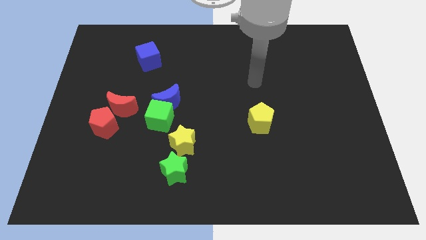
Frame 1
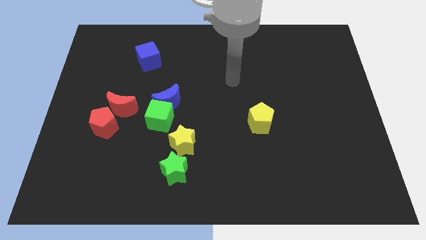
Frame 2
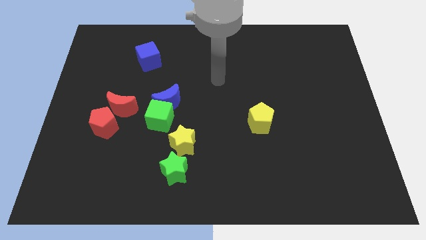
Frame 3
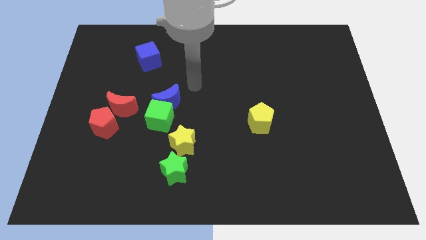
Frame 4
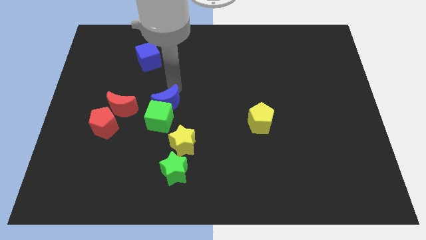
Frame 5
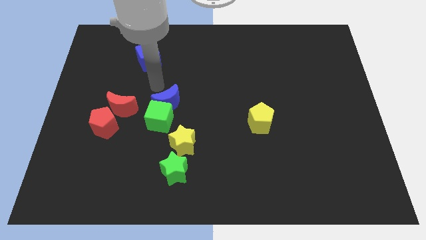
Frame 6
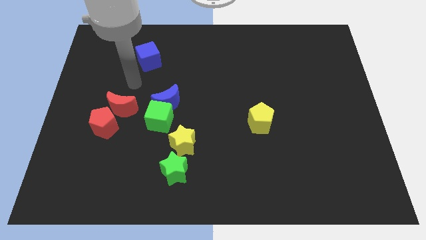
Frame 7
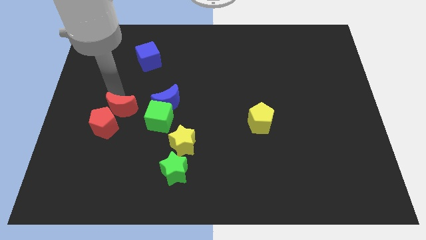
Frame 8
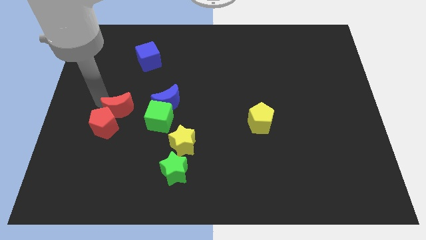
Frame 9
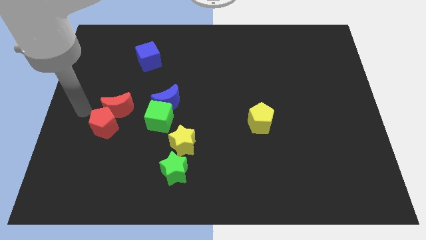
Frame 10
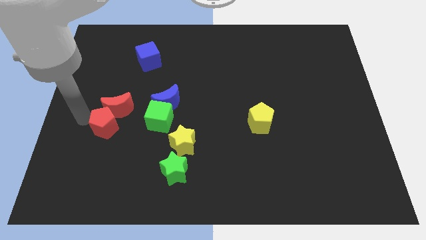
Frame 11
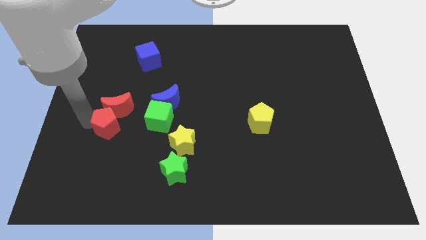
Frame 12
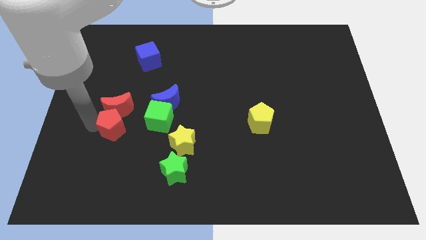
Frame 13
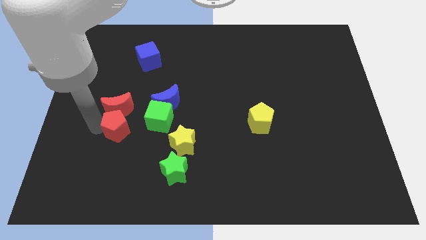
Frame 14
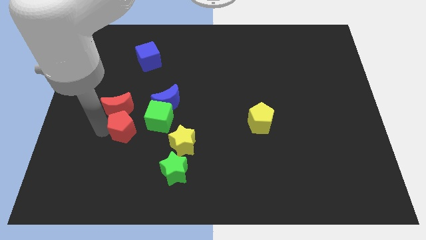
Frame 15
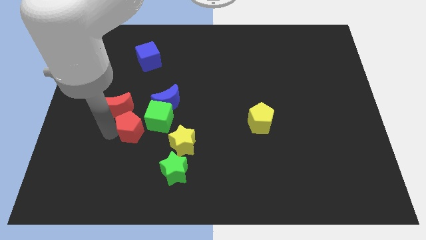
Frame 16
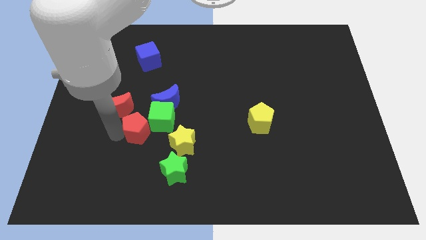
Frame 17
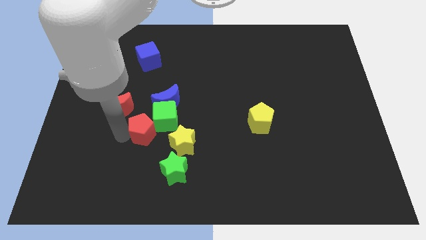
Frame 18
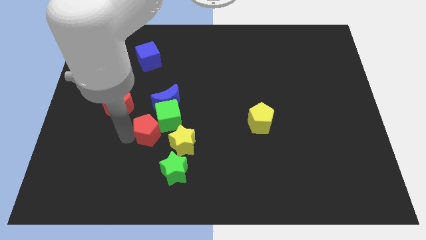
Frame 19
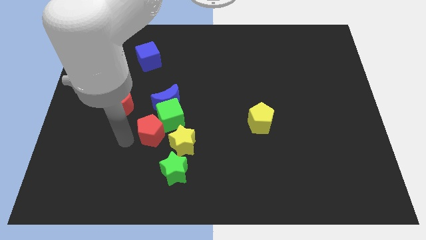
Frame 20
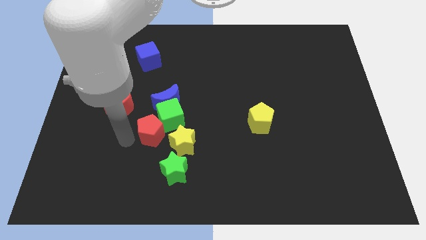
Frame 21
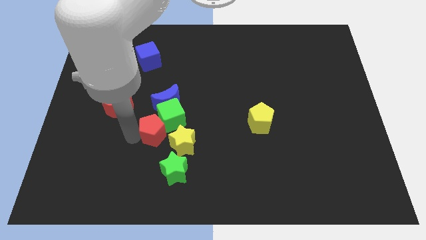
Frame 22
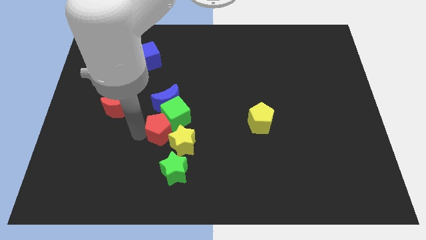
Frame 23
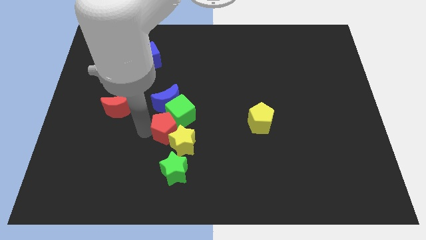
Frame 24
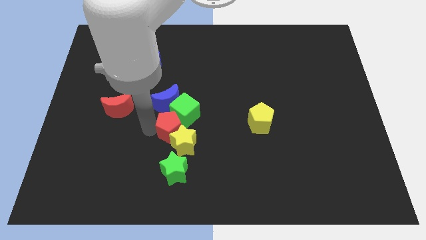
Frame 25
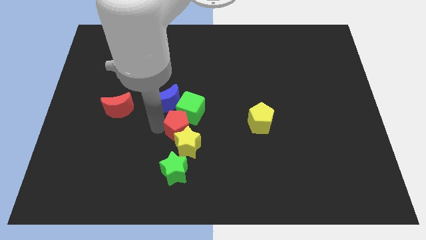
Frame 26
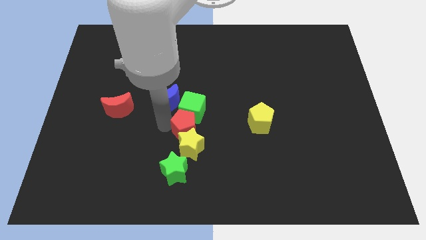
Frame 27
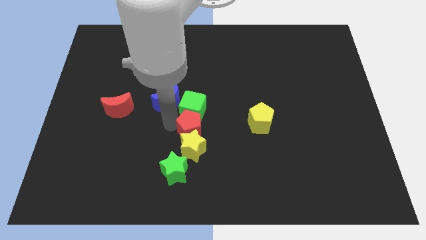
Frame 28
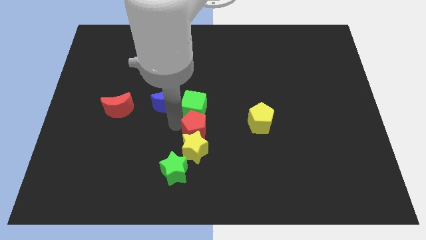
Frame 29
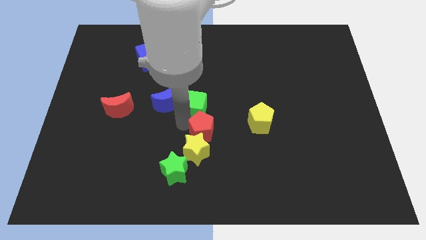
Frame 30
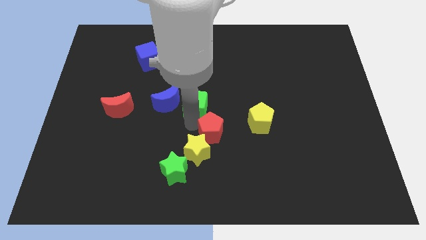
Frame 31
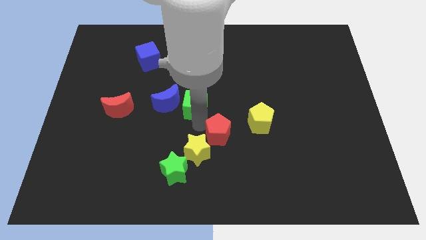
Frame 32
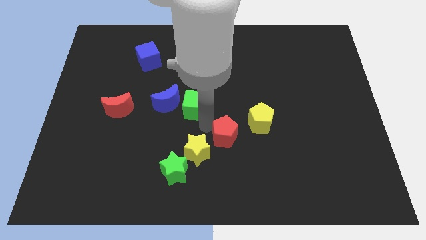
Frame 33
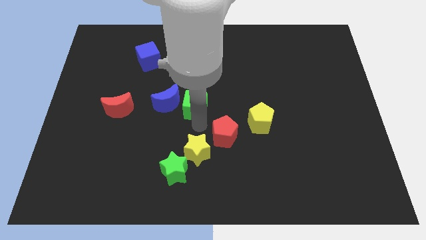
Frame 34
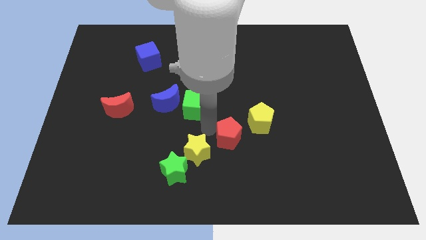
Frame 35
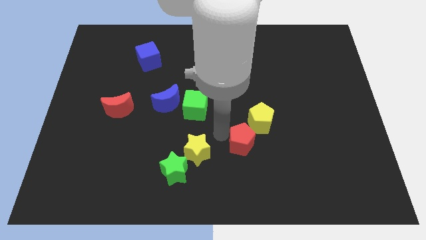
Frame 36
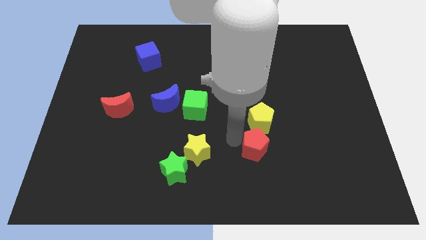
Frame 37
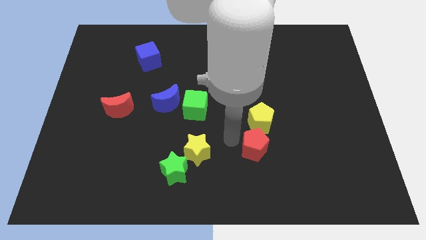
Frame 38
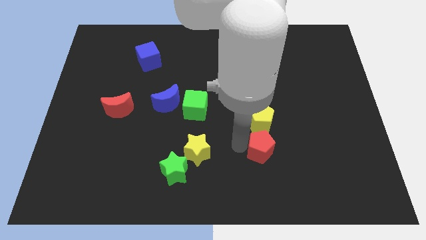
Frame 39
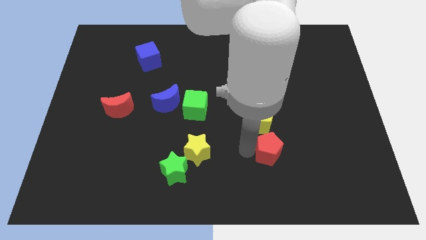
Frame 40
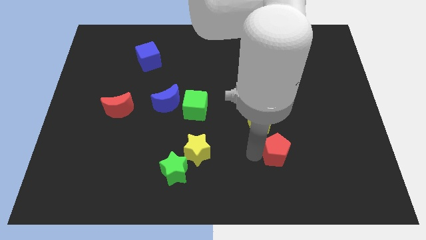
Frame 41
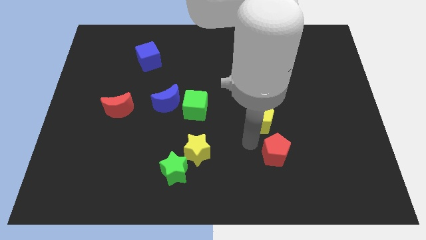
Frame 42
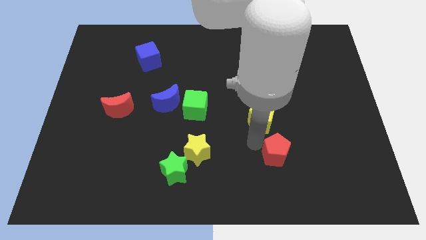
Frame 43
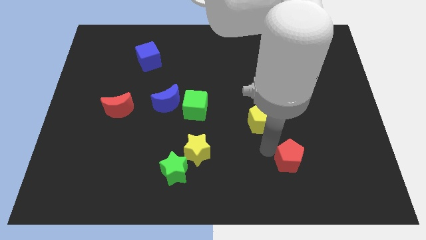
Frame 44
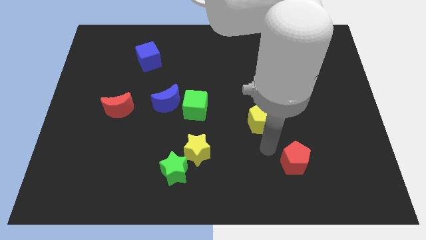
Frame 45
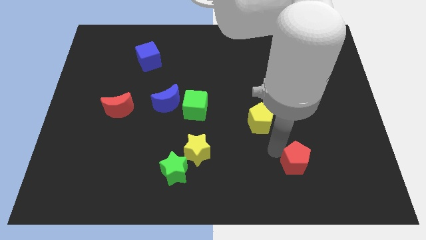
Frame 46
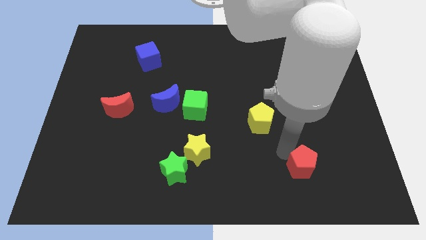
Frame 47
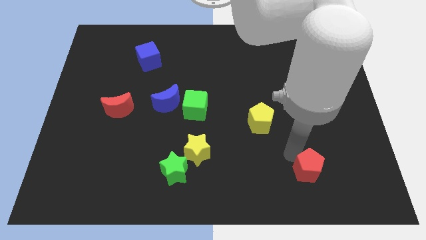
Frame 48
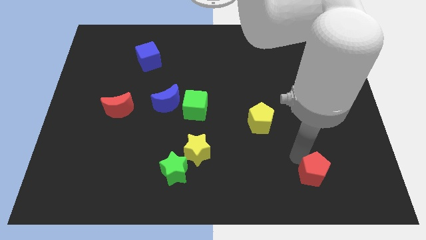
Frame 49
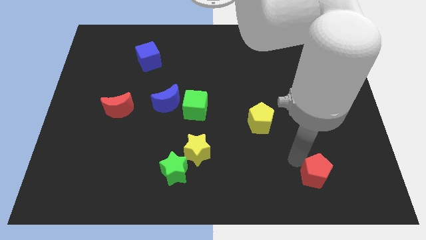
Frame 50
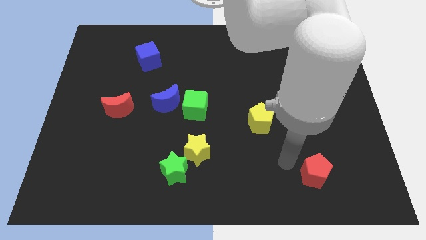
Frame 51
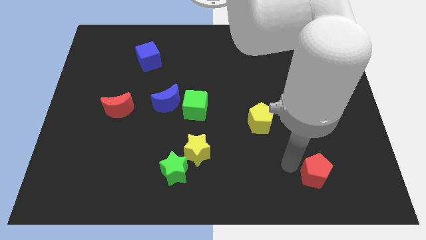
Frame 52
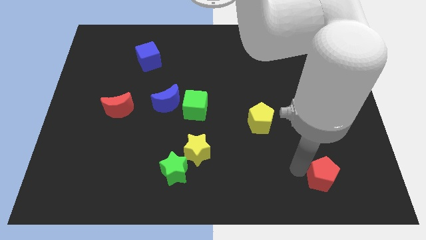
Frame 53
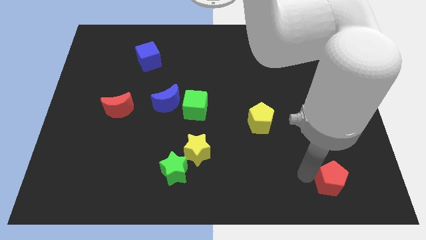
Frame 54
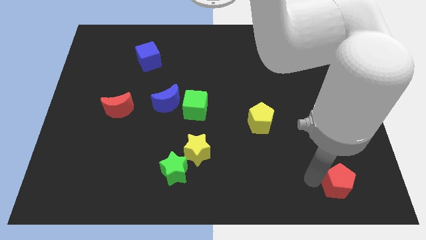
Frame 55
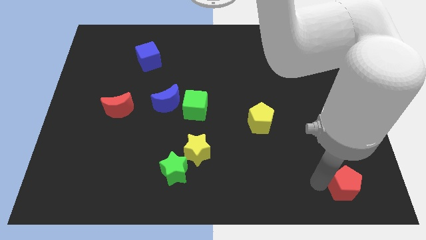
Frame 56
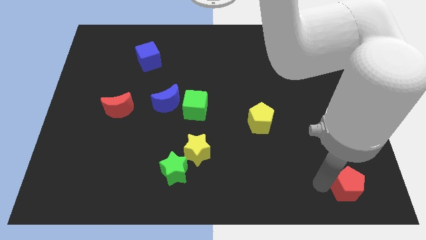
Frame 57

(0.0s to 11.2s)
move the red pentagon to the bottom right of the board
